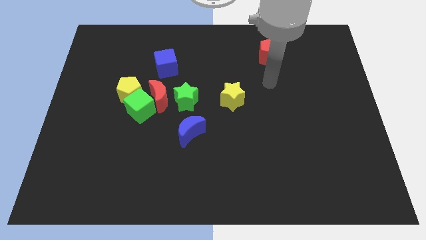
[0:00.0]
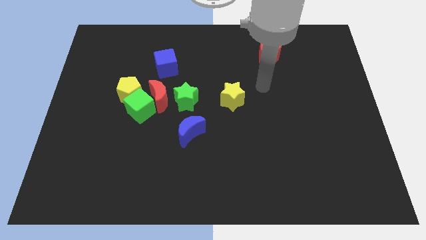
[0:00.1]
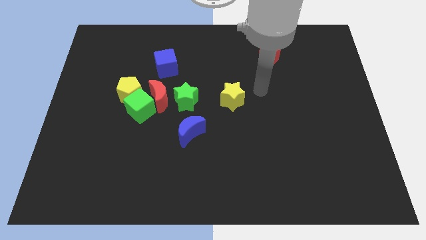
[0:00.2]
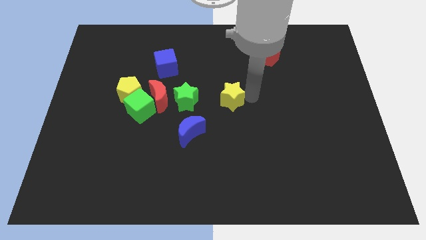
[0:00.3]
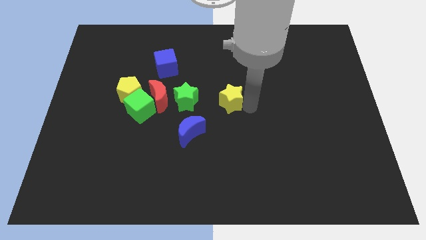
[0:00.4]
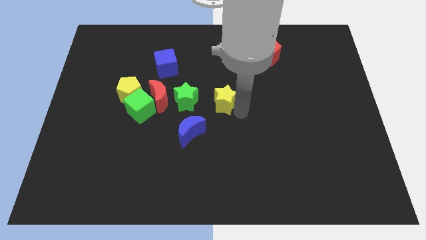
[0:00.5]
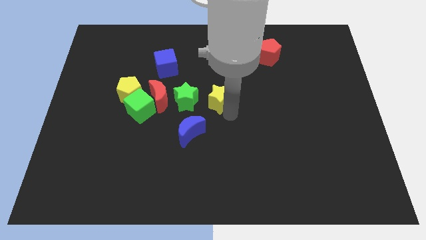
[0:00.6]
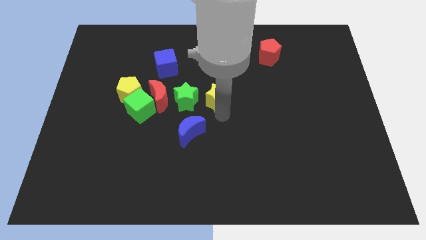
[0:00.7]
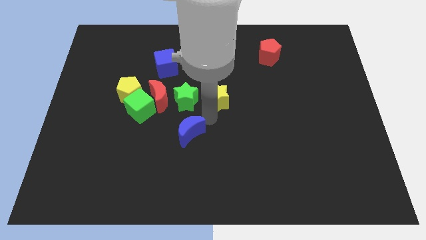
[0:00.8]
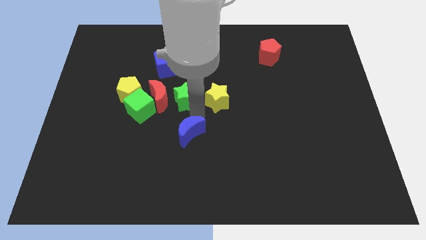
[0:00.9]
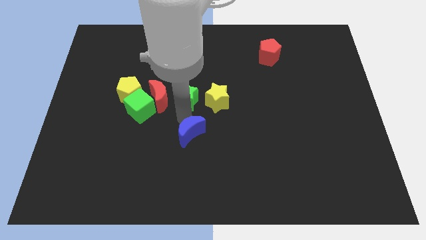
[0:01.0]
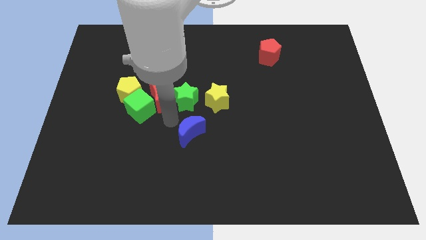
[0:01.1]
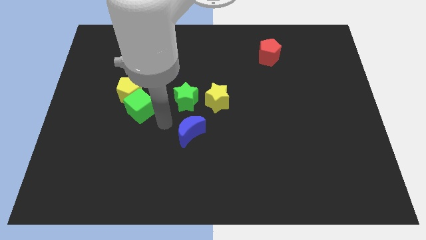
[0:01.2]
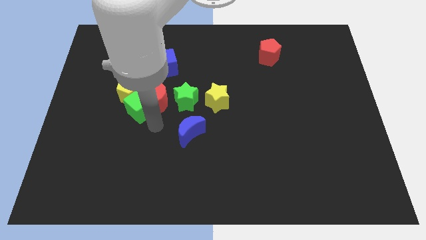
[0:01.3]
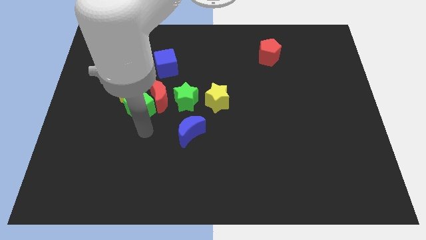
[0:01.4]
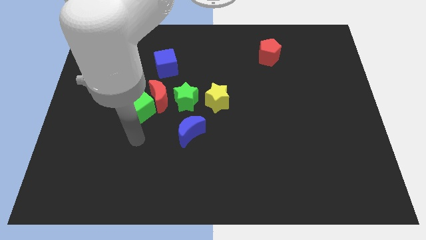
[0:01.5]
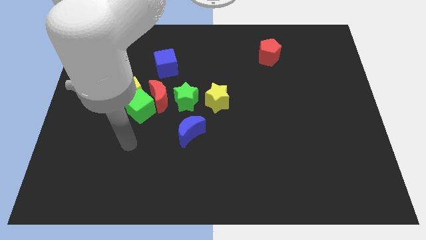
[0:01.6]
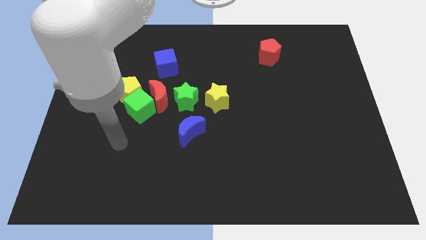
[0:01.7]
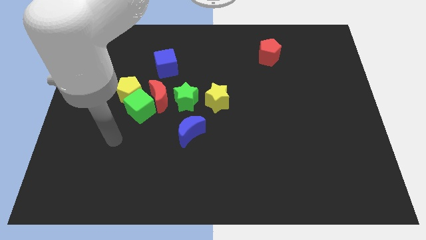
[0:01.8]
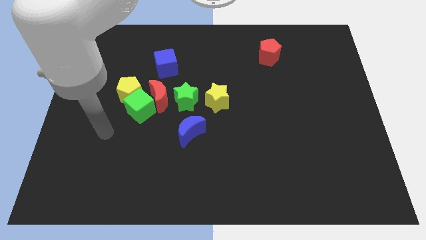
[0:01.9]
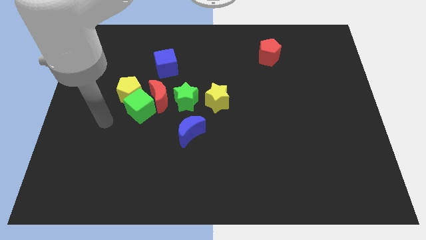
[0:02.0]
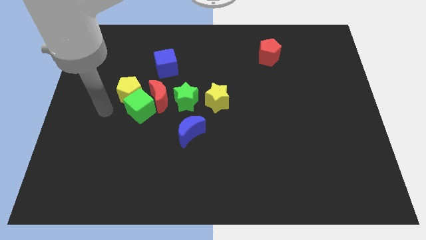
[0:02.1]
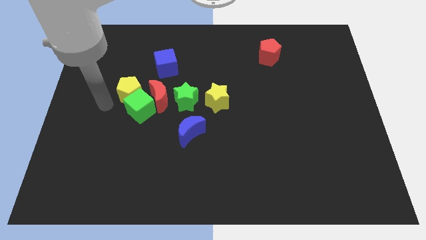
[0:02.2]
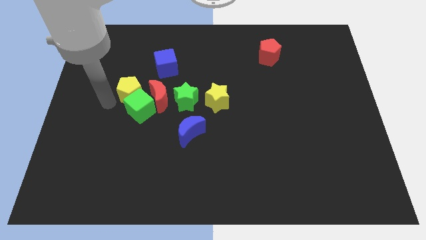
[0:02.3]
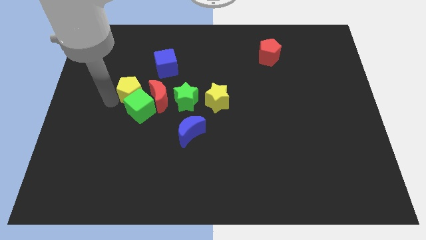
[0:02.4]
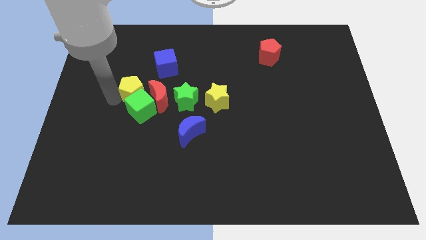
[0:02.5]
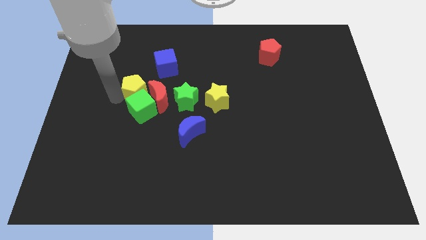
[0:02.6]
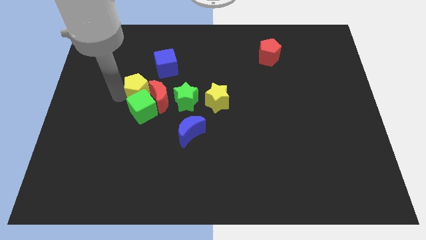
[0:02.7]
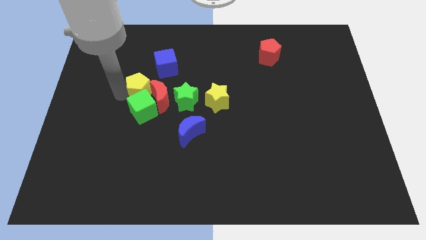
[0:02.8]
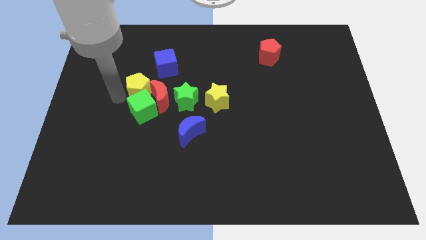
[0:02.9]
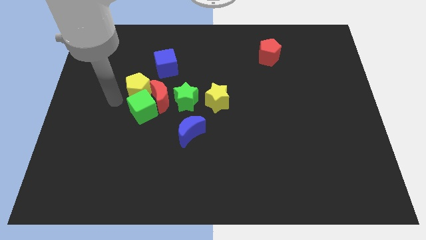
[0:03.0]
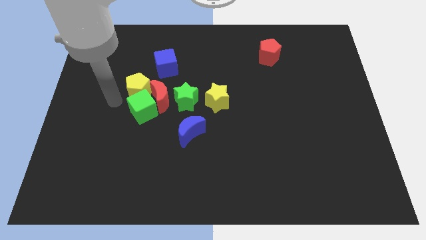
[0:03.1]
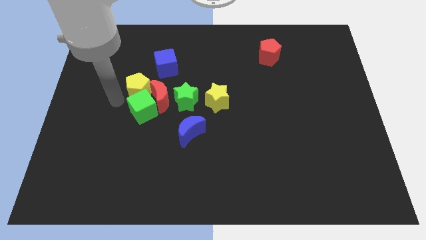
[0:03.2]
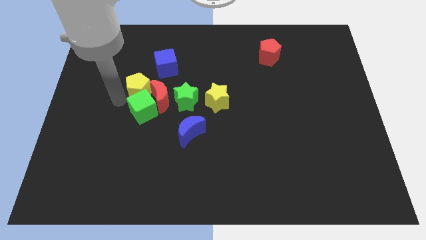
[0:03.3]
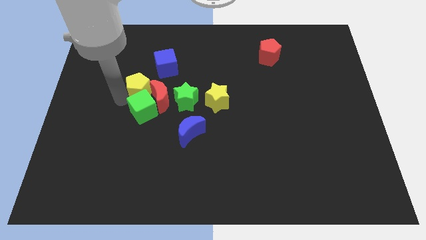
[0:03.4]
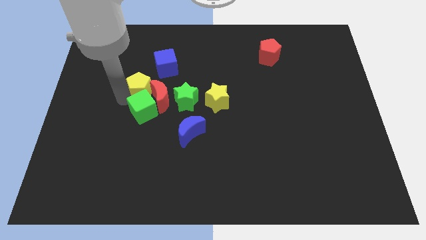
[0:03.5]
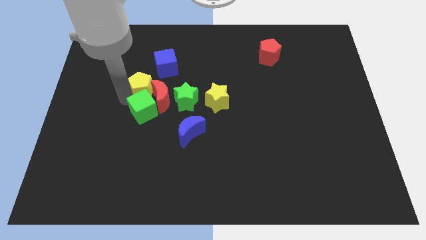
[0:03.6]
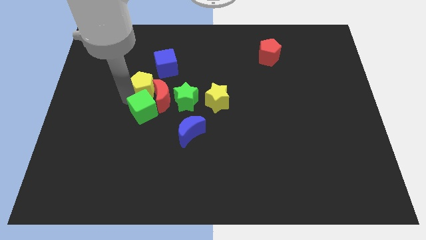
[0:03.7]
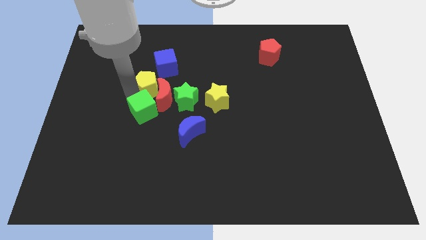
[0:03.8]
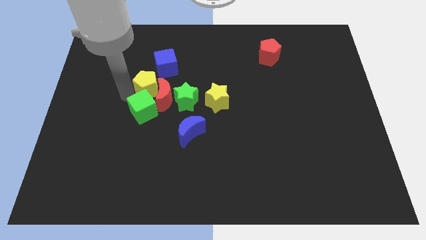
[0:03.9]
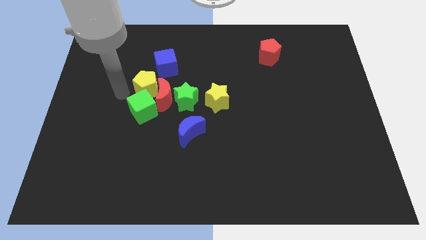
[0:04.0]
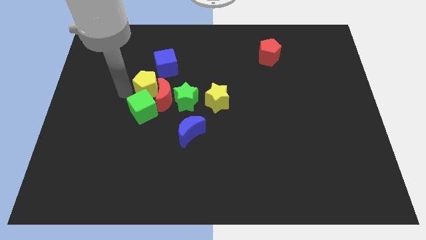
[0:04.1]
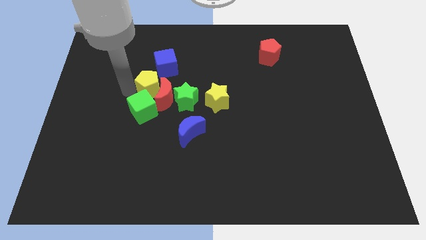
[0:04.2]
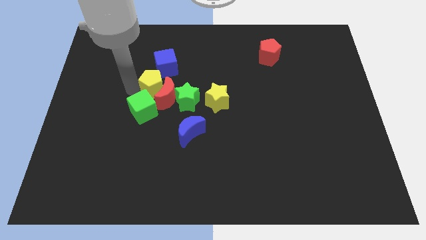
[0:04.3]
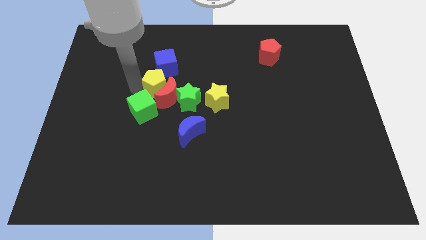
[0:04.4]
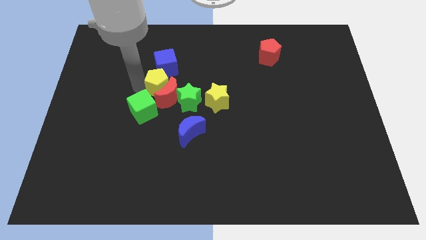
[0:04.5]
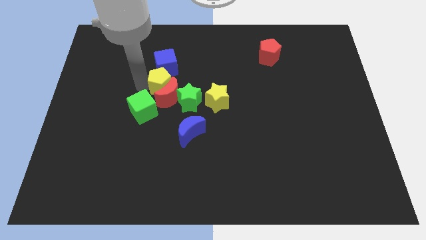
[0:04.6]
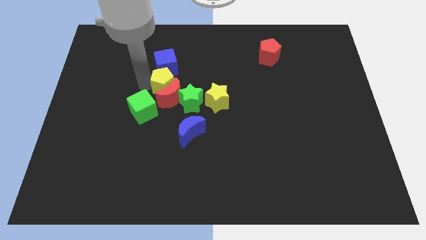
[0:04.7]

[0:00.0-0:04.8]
put the yellow pentagon to the bottom right of the blue cube

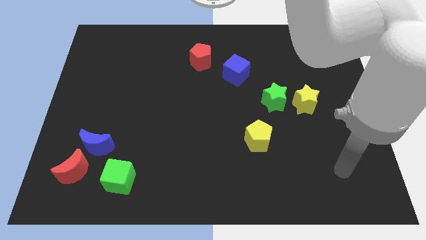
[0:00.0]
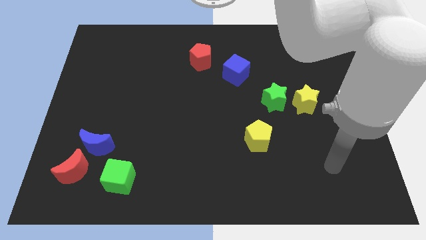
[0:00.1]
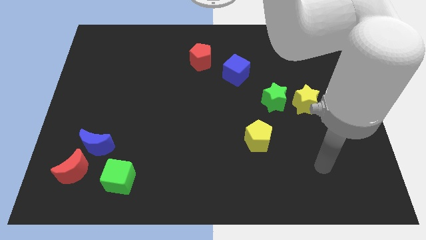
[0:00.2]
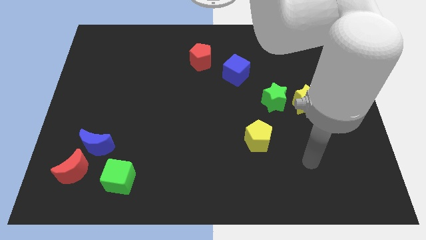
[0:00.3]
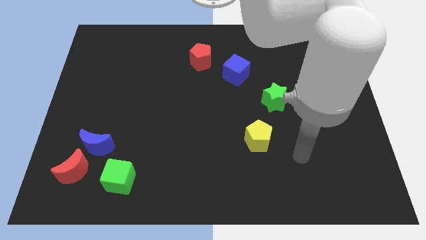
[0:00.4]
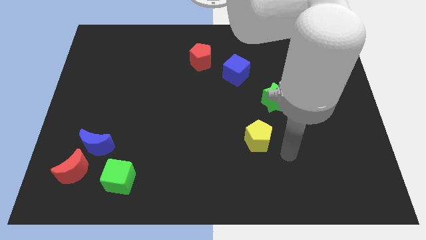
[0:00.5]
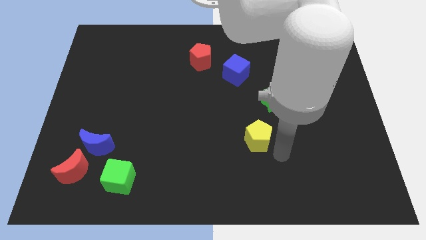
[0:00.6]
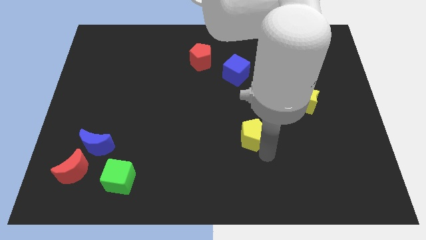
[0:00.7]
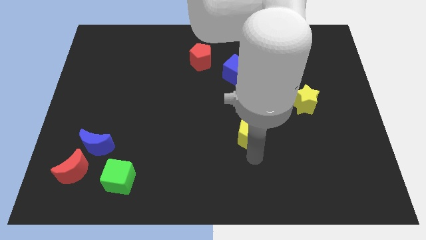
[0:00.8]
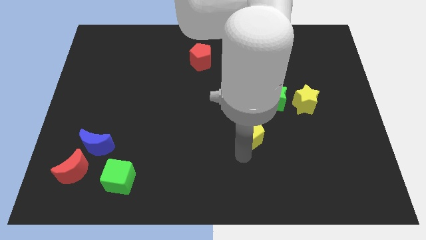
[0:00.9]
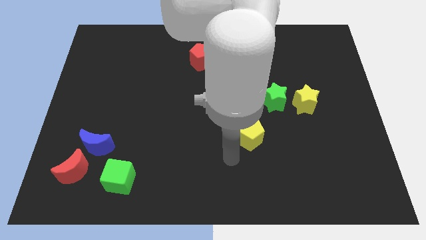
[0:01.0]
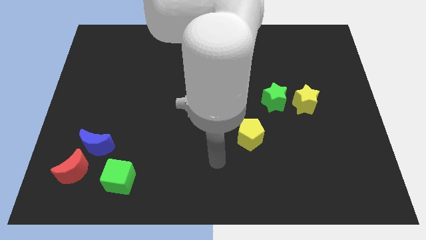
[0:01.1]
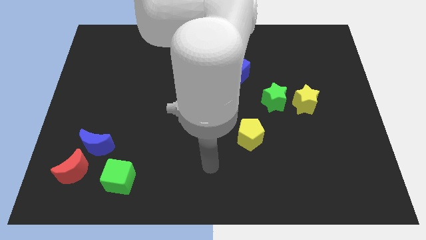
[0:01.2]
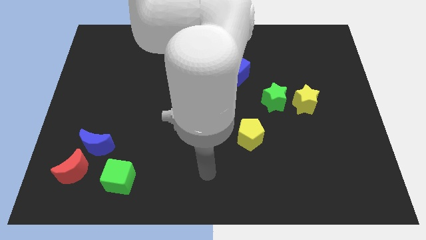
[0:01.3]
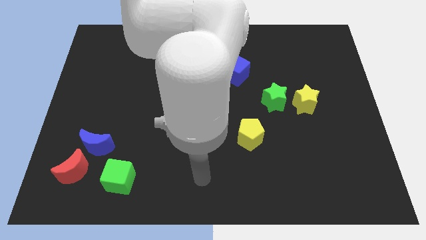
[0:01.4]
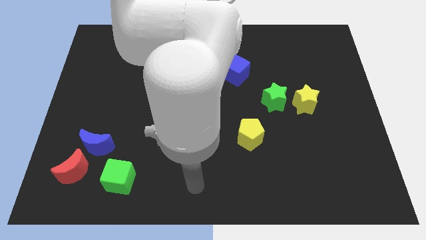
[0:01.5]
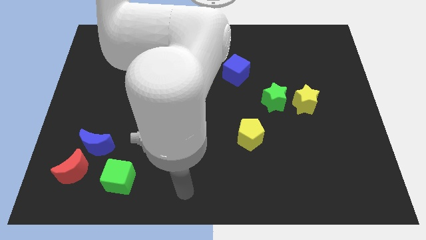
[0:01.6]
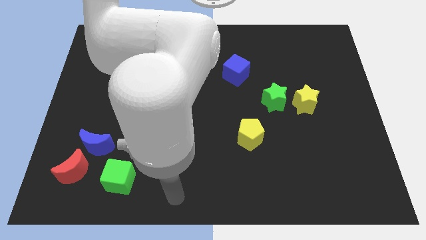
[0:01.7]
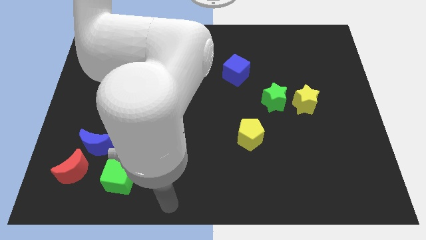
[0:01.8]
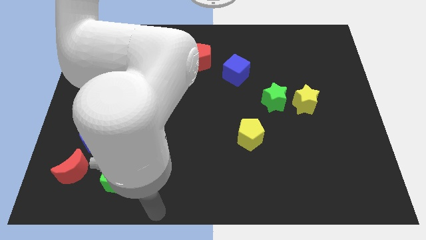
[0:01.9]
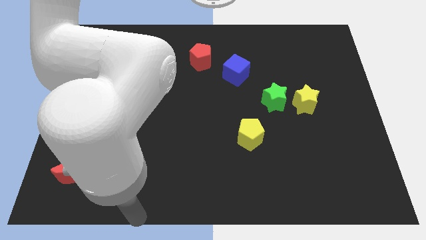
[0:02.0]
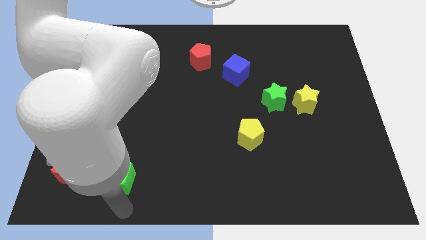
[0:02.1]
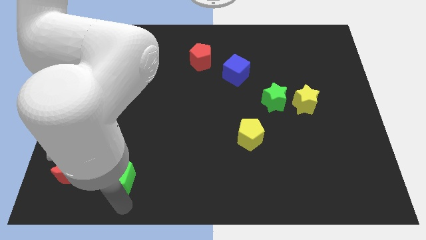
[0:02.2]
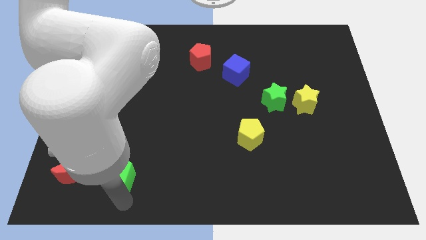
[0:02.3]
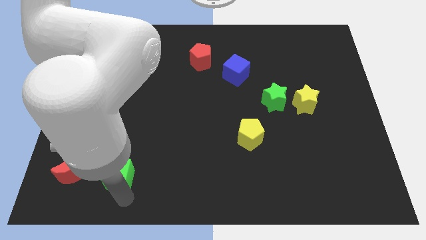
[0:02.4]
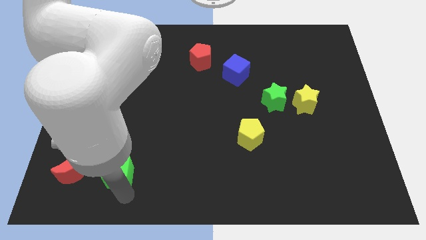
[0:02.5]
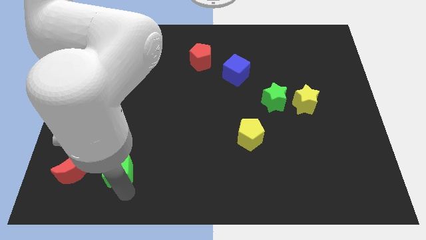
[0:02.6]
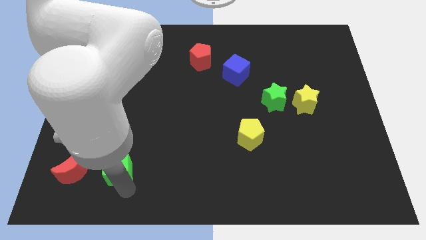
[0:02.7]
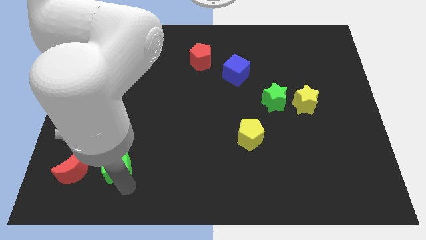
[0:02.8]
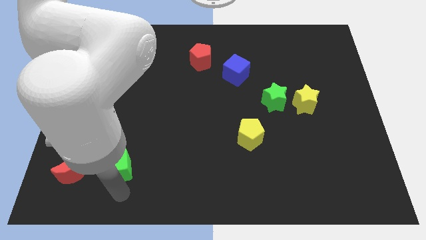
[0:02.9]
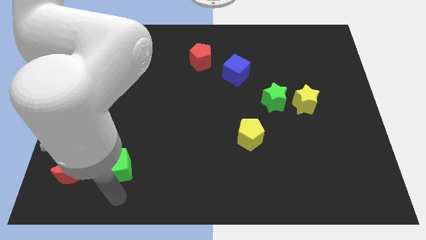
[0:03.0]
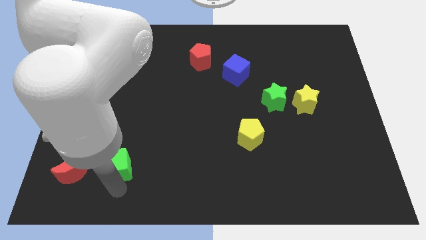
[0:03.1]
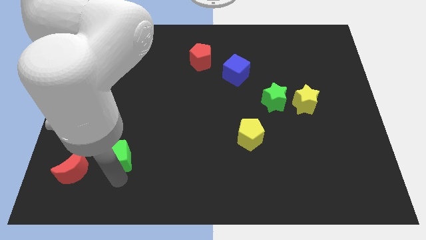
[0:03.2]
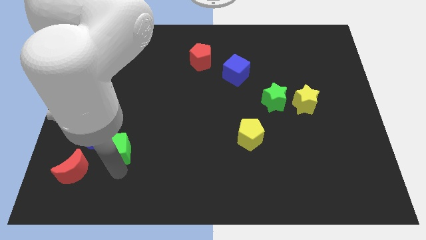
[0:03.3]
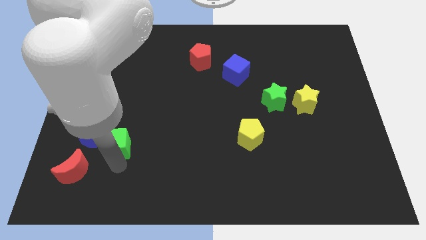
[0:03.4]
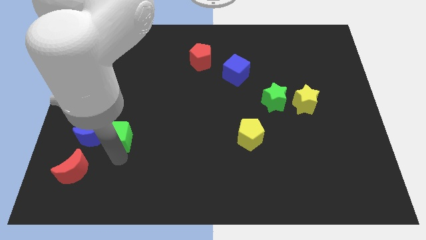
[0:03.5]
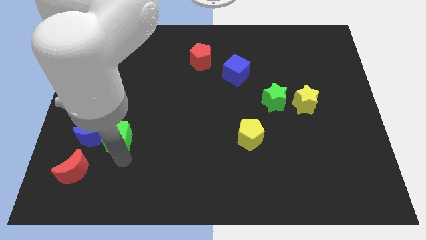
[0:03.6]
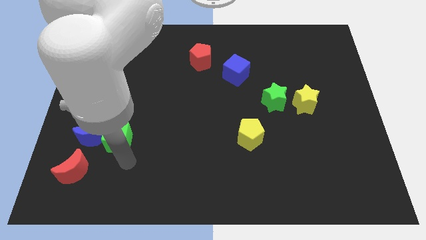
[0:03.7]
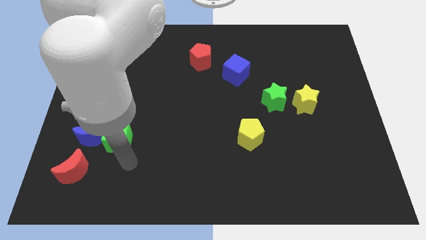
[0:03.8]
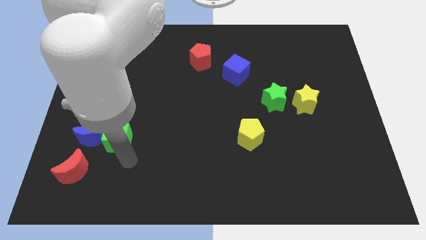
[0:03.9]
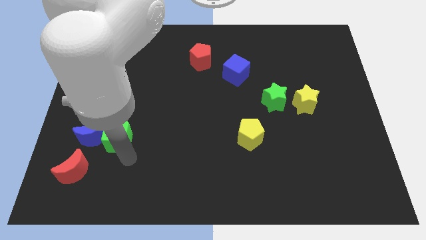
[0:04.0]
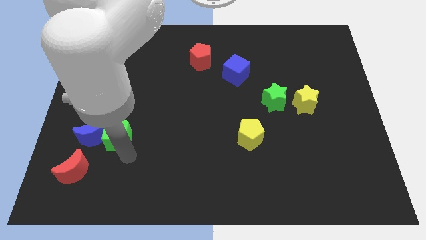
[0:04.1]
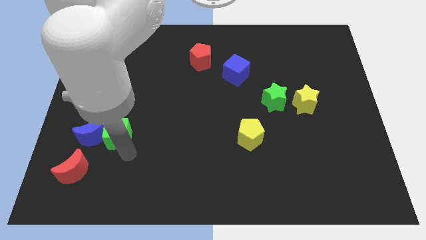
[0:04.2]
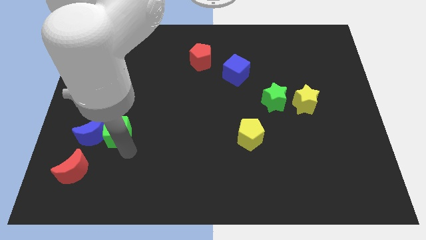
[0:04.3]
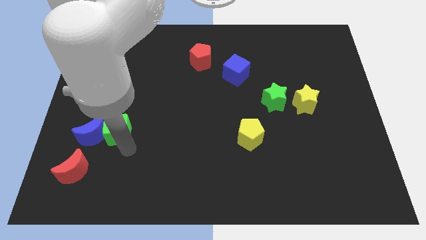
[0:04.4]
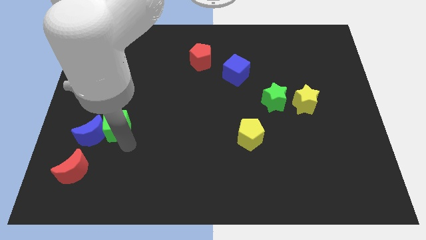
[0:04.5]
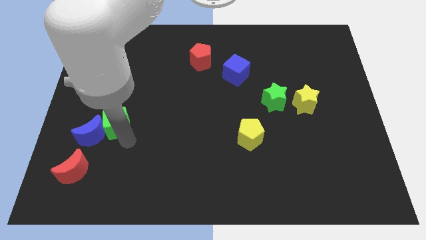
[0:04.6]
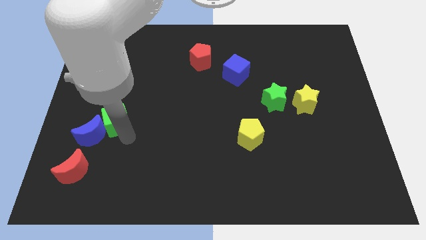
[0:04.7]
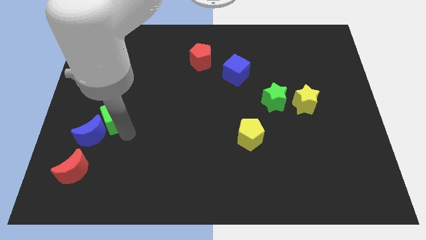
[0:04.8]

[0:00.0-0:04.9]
slide the green cube to the top side of the blue moon
